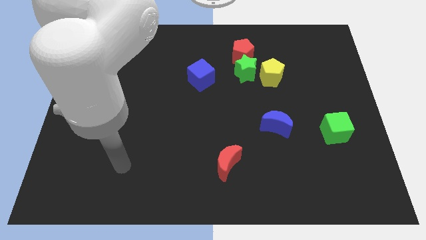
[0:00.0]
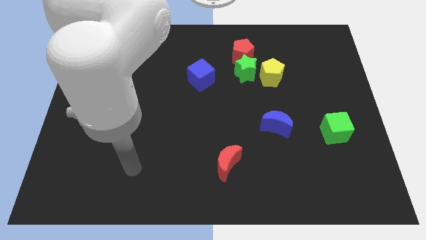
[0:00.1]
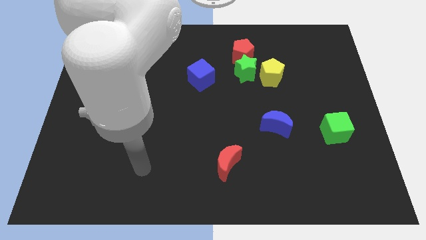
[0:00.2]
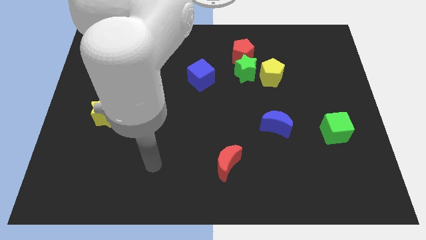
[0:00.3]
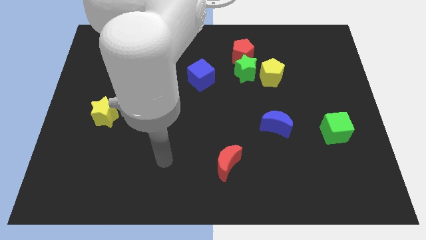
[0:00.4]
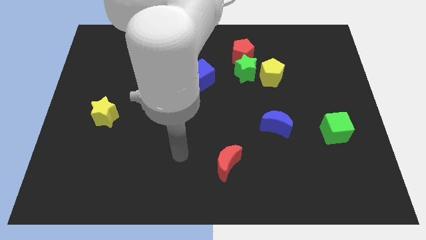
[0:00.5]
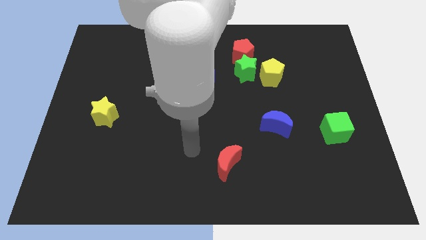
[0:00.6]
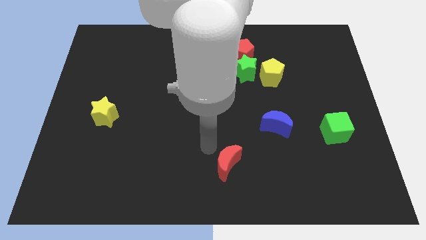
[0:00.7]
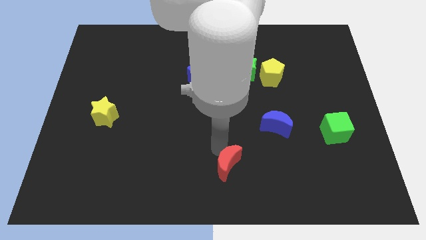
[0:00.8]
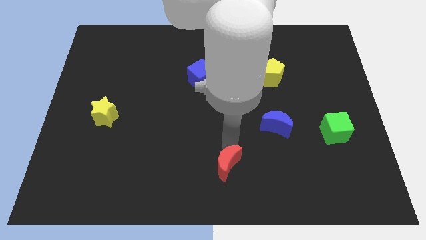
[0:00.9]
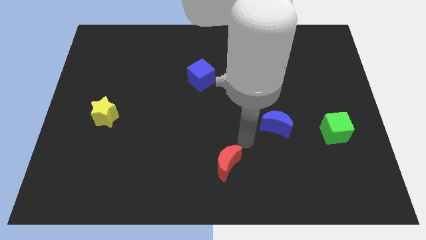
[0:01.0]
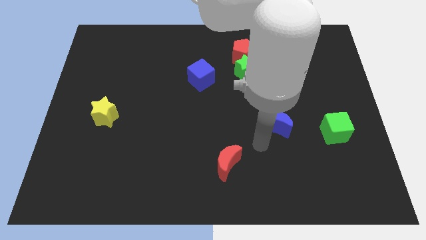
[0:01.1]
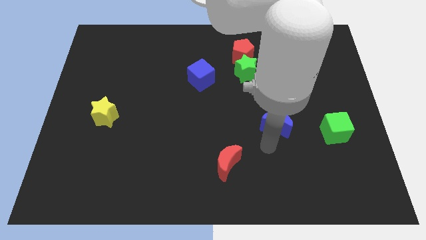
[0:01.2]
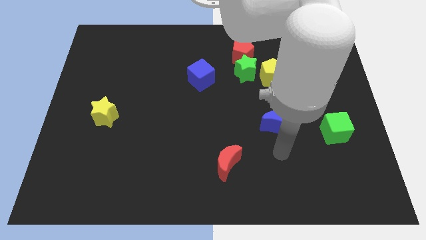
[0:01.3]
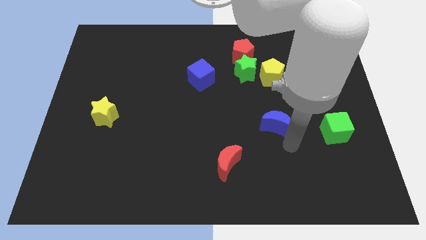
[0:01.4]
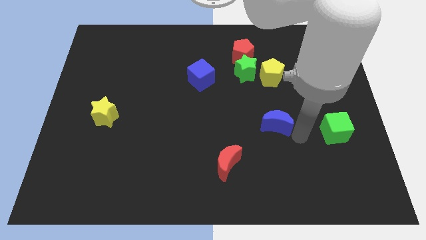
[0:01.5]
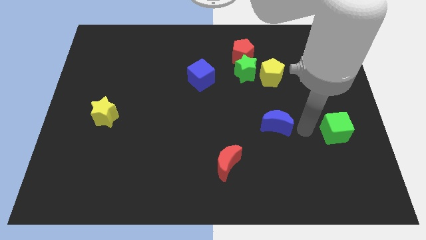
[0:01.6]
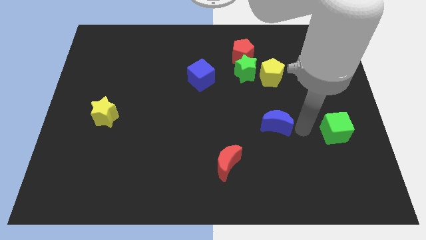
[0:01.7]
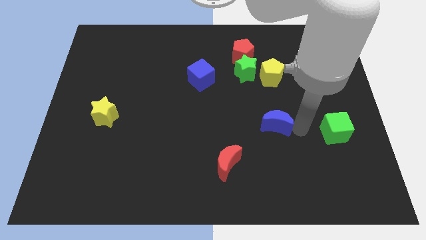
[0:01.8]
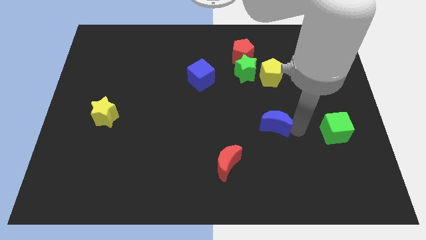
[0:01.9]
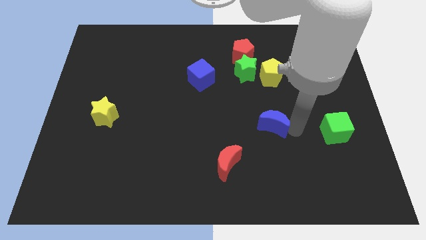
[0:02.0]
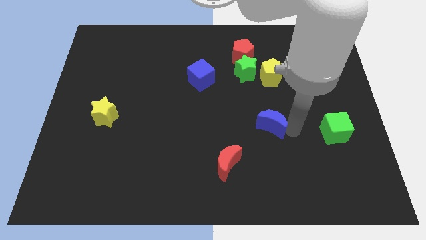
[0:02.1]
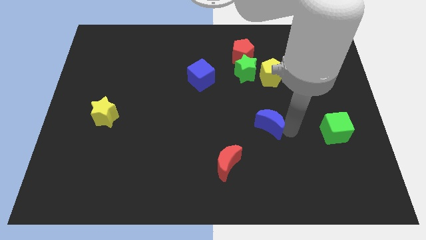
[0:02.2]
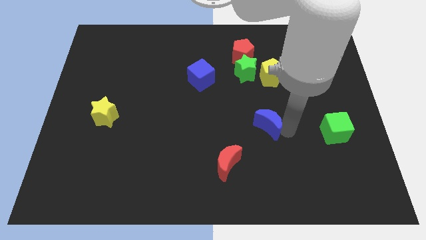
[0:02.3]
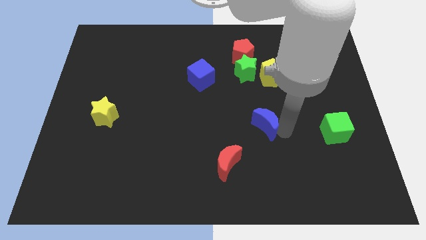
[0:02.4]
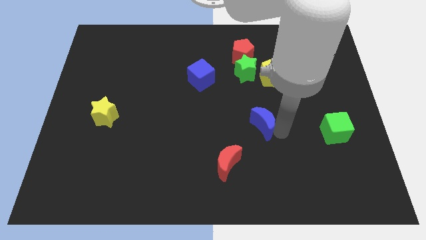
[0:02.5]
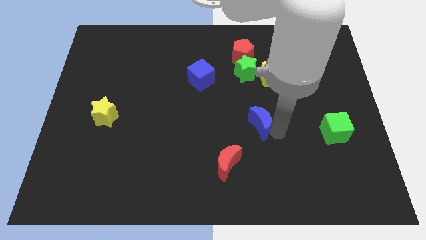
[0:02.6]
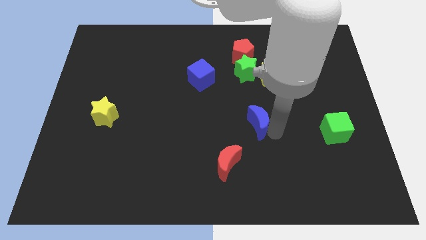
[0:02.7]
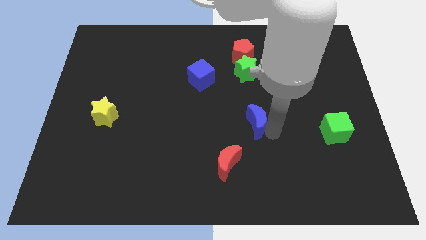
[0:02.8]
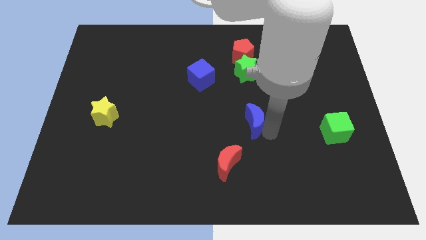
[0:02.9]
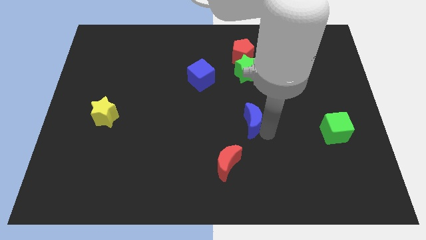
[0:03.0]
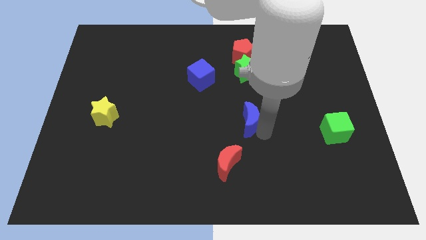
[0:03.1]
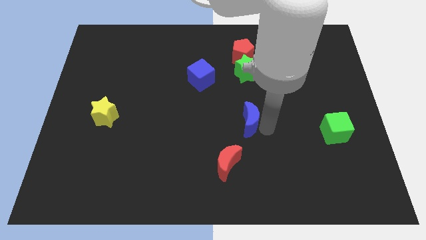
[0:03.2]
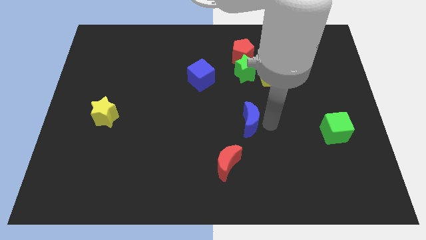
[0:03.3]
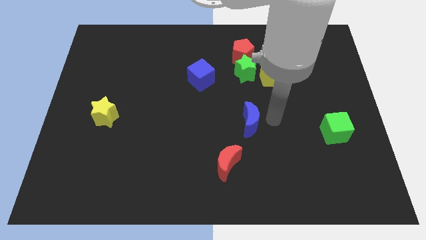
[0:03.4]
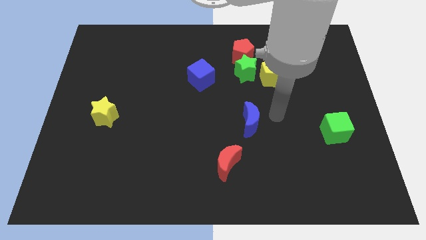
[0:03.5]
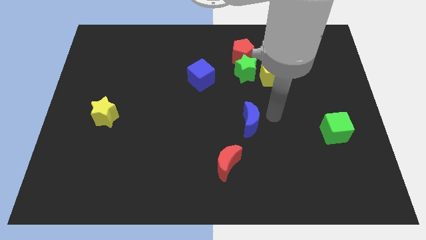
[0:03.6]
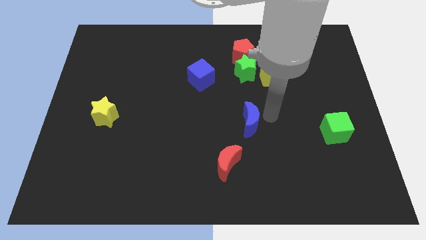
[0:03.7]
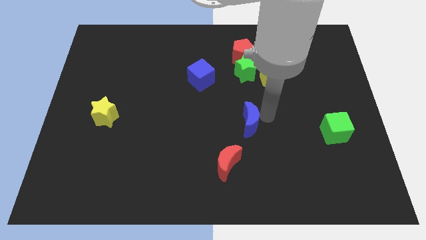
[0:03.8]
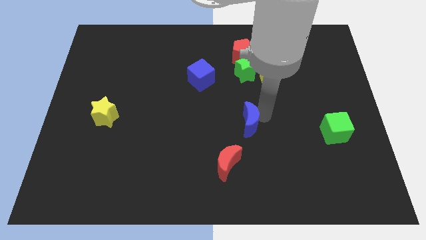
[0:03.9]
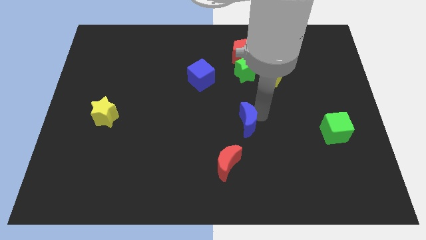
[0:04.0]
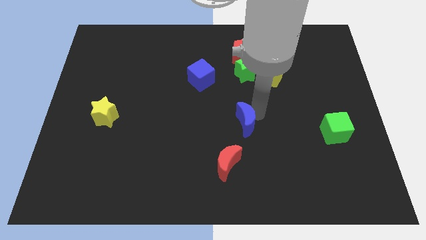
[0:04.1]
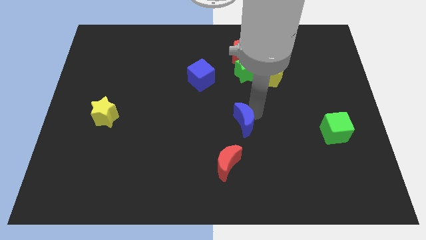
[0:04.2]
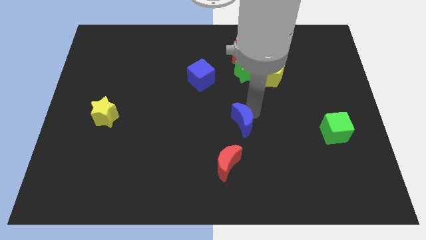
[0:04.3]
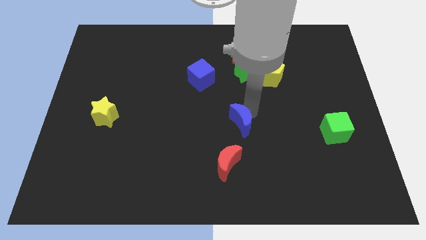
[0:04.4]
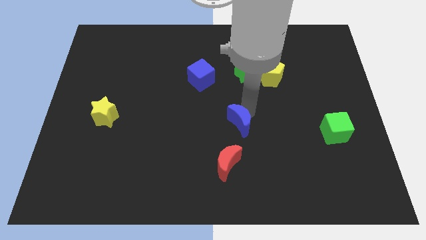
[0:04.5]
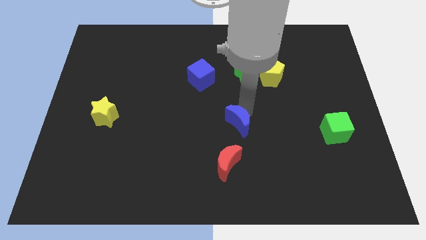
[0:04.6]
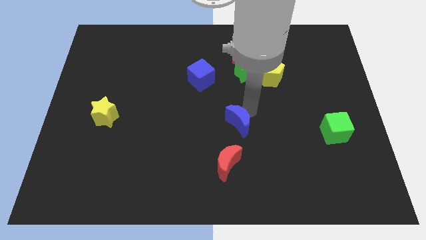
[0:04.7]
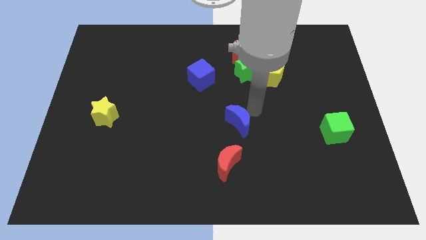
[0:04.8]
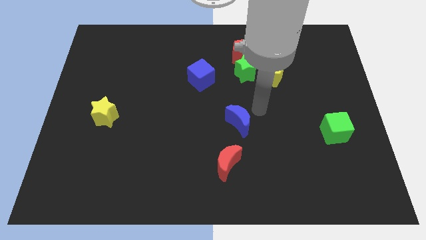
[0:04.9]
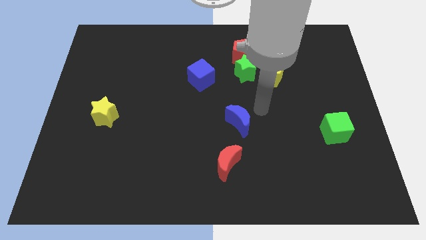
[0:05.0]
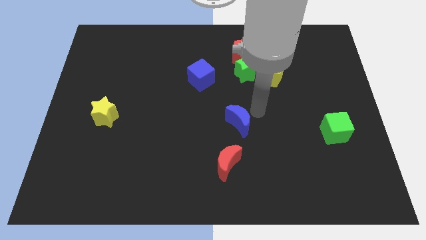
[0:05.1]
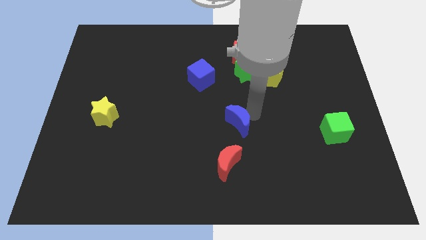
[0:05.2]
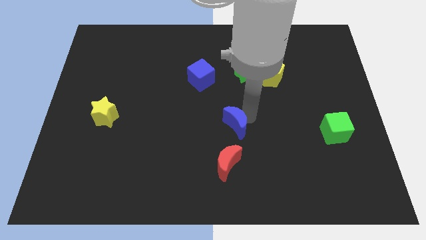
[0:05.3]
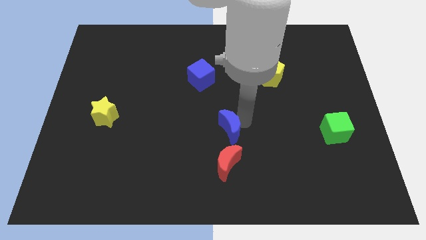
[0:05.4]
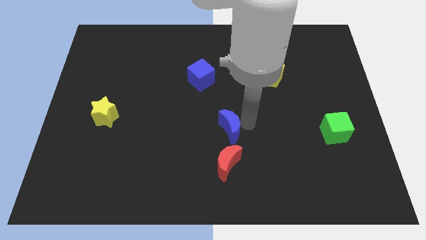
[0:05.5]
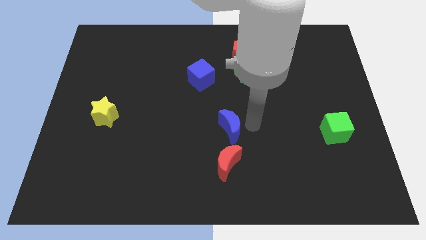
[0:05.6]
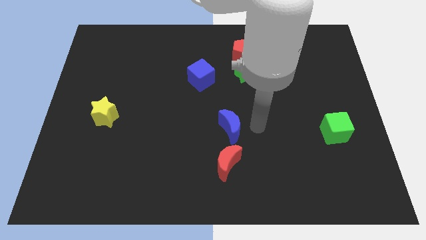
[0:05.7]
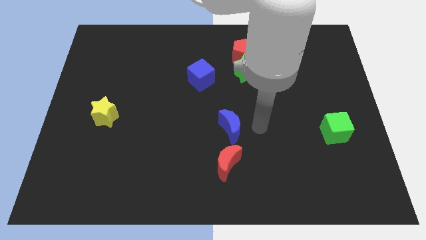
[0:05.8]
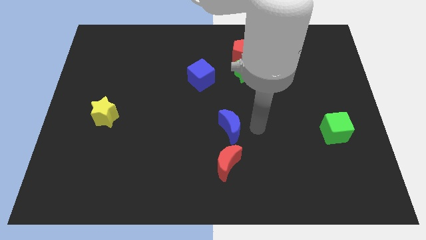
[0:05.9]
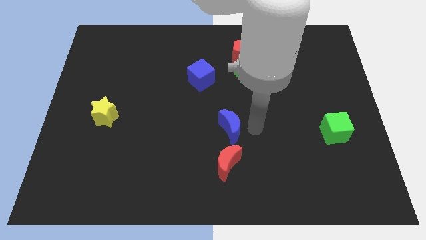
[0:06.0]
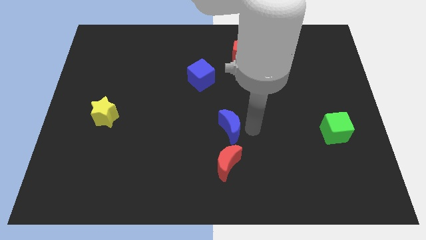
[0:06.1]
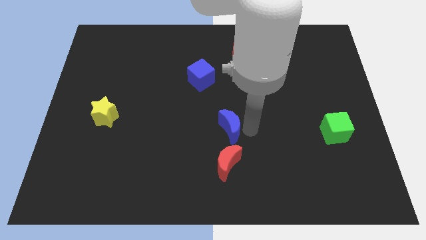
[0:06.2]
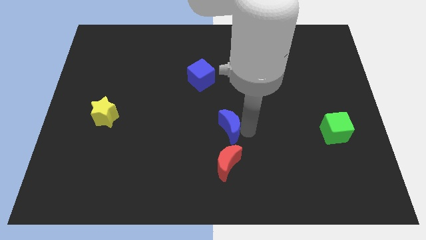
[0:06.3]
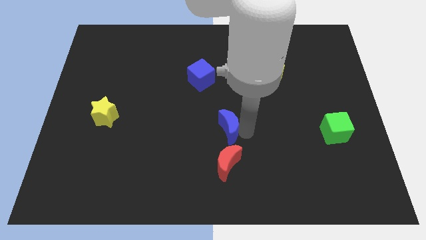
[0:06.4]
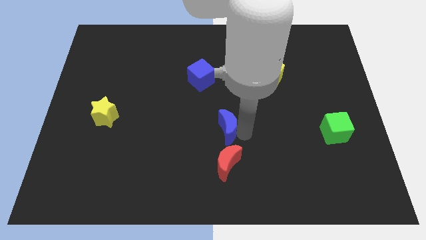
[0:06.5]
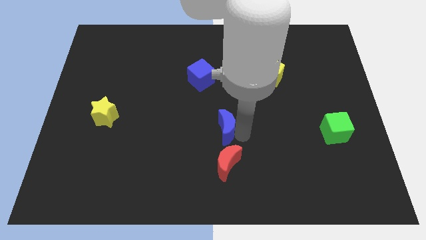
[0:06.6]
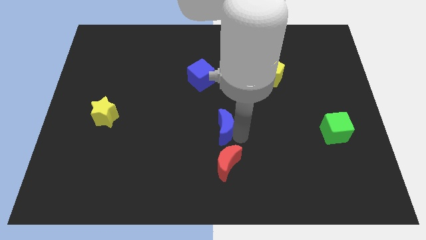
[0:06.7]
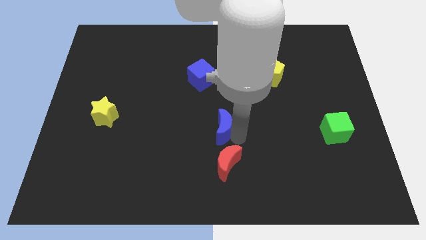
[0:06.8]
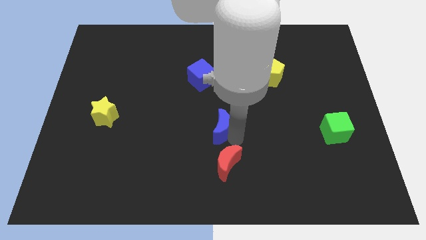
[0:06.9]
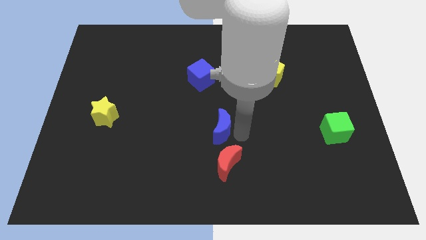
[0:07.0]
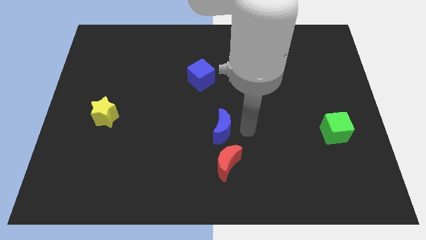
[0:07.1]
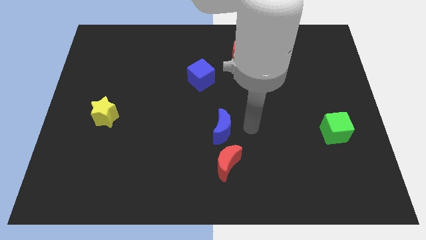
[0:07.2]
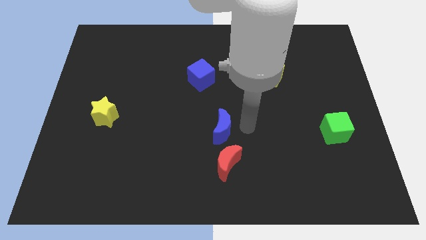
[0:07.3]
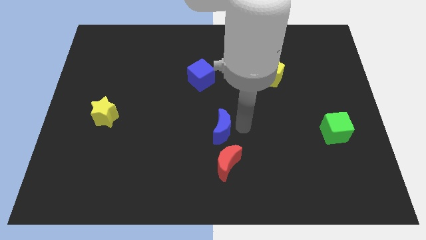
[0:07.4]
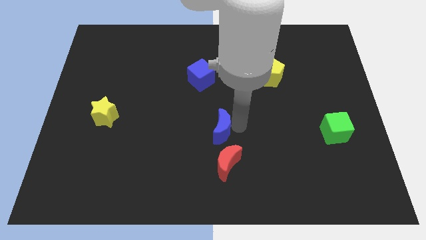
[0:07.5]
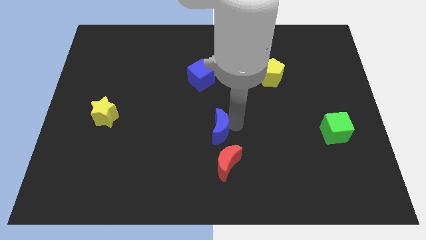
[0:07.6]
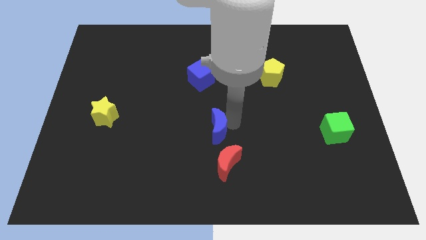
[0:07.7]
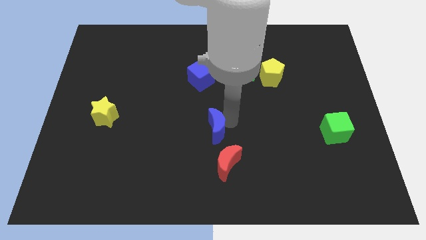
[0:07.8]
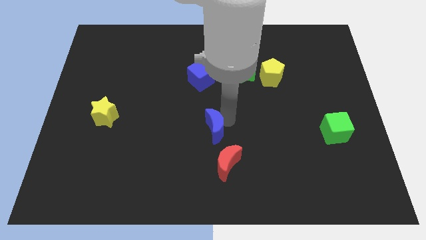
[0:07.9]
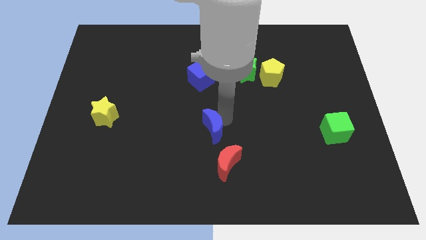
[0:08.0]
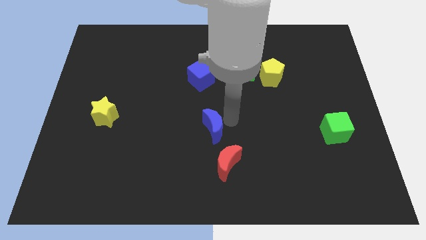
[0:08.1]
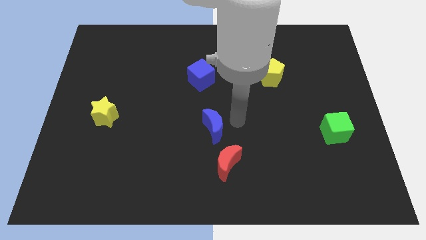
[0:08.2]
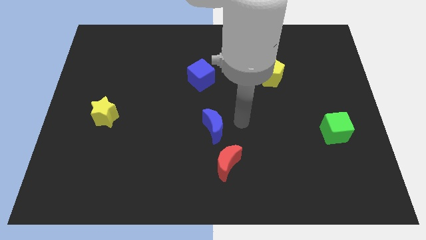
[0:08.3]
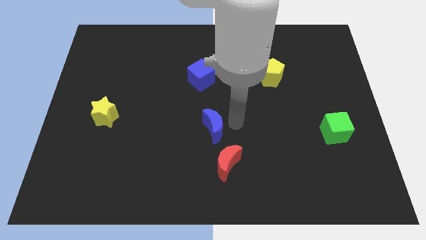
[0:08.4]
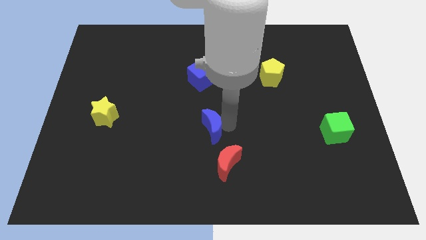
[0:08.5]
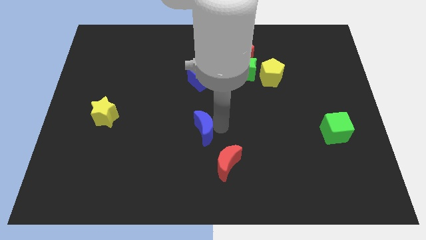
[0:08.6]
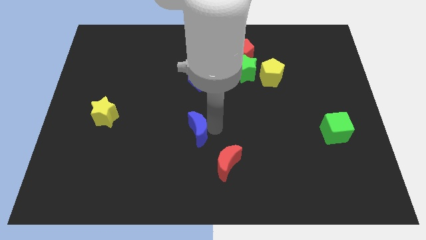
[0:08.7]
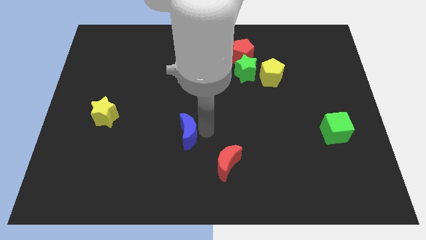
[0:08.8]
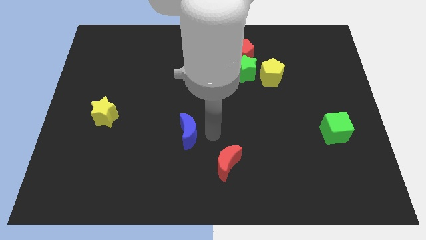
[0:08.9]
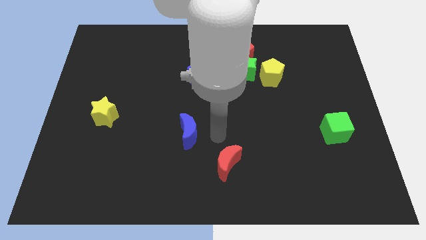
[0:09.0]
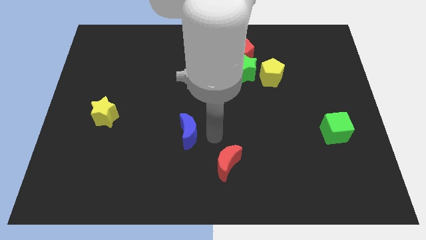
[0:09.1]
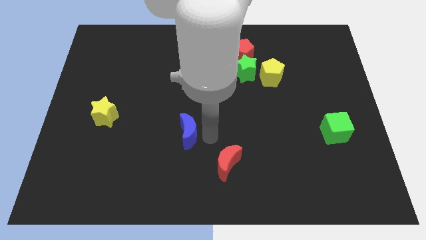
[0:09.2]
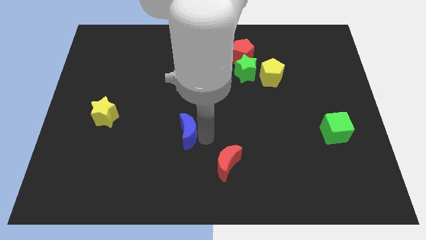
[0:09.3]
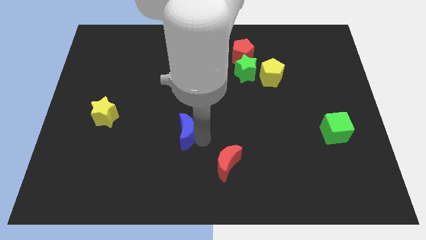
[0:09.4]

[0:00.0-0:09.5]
slide the blue moon left
